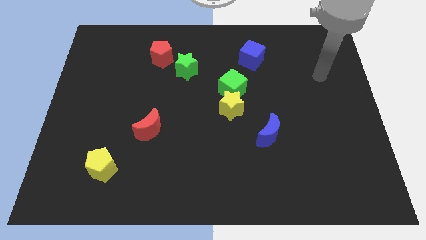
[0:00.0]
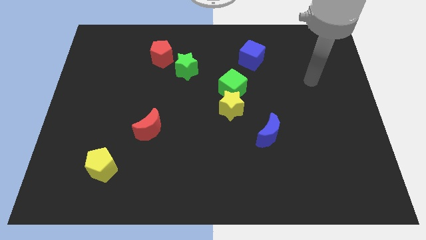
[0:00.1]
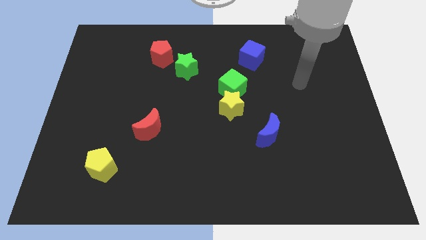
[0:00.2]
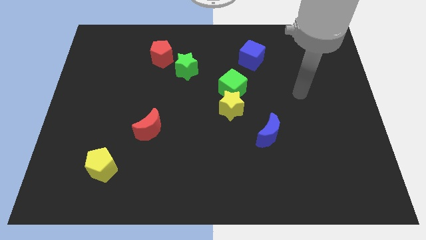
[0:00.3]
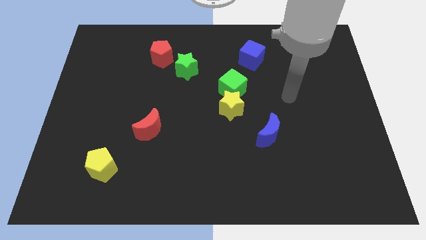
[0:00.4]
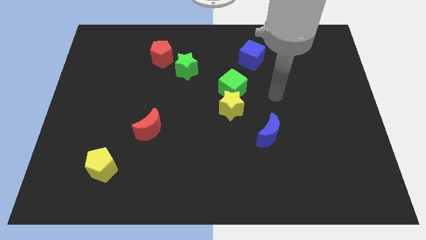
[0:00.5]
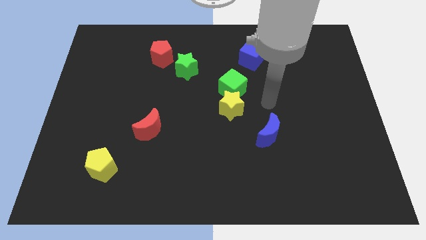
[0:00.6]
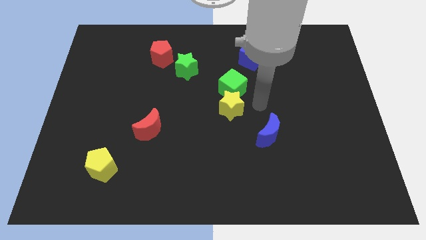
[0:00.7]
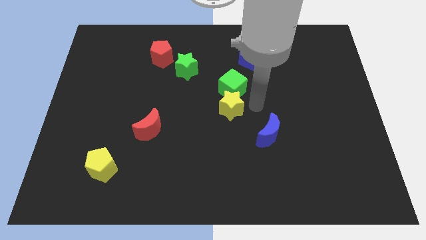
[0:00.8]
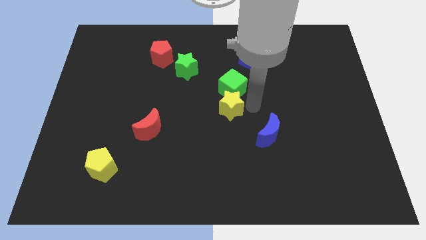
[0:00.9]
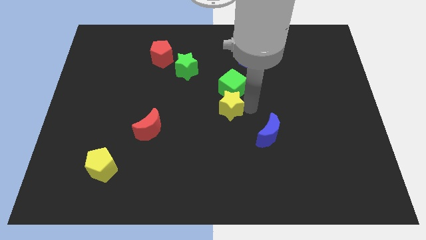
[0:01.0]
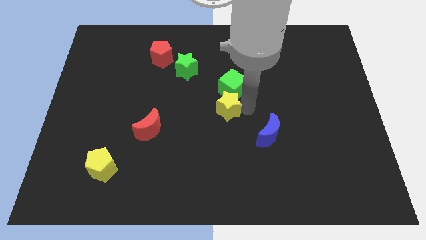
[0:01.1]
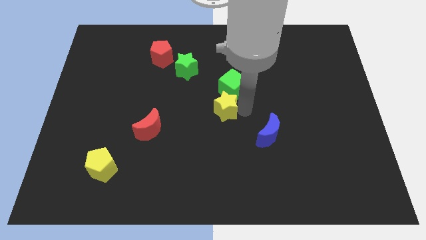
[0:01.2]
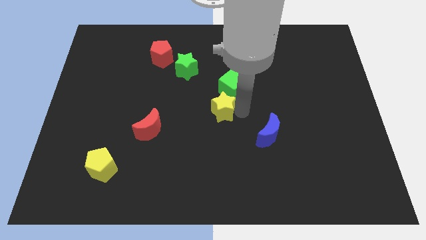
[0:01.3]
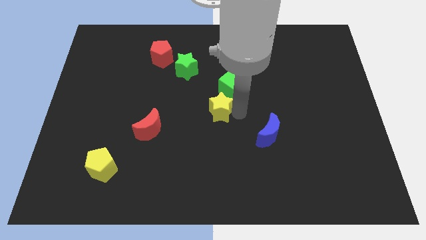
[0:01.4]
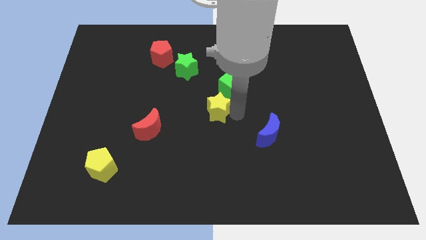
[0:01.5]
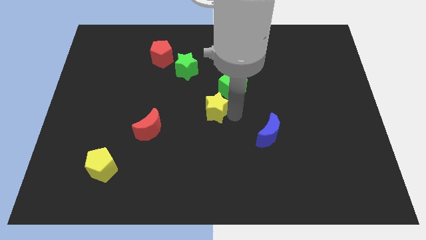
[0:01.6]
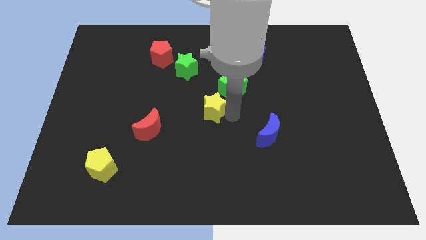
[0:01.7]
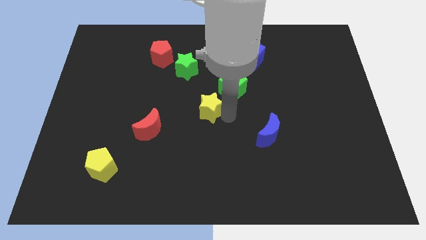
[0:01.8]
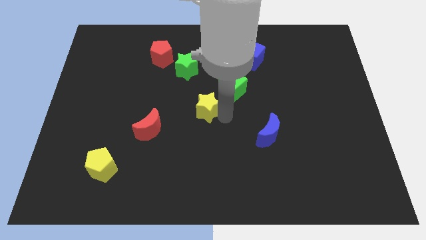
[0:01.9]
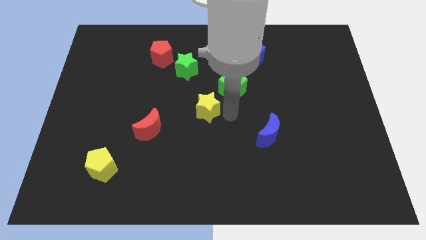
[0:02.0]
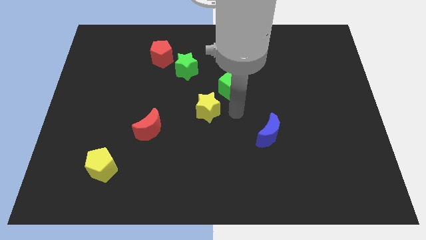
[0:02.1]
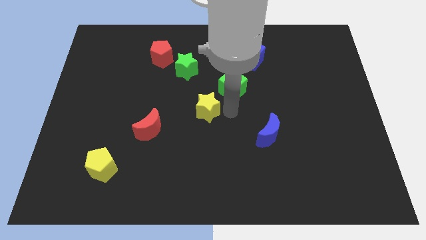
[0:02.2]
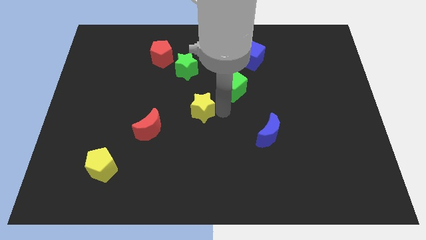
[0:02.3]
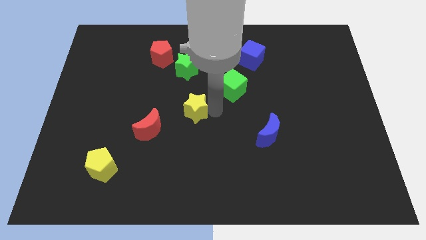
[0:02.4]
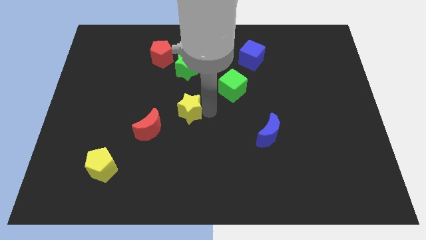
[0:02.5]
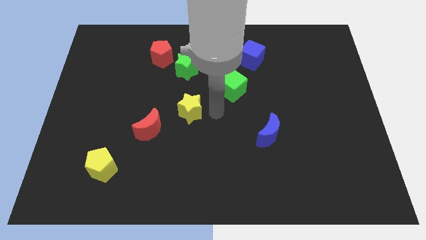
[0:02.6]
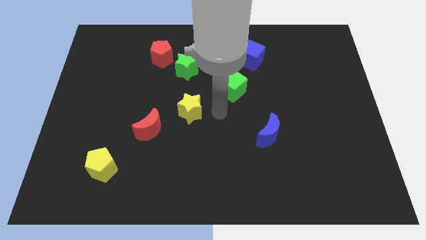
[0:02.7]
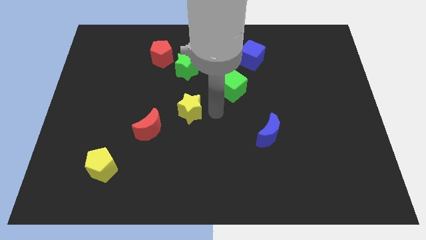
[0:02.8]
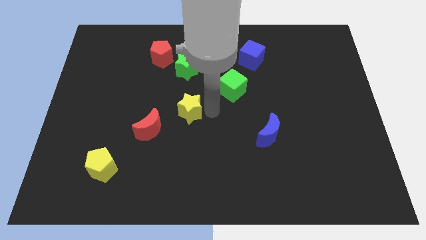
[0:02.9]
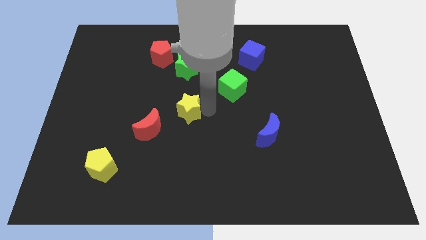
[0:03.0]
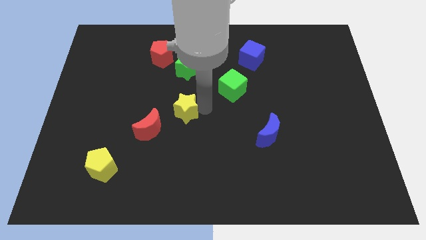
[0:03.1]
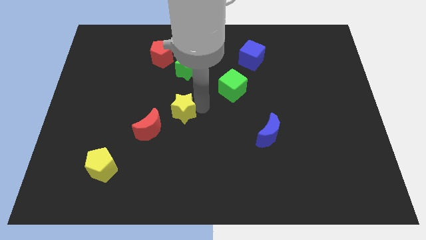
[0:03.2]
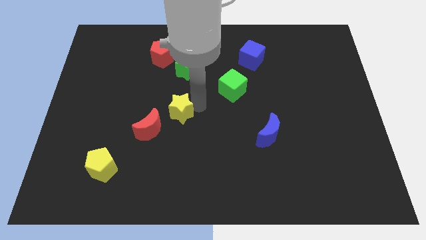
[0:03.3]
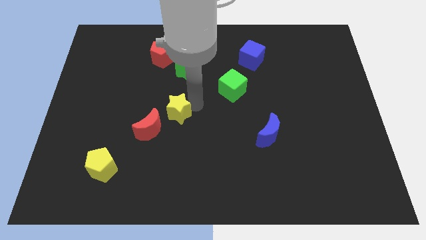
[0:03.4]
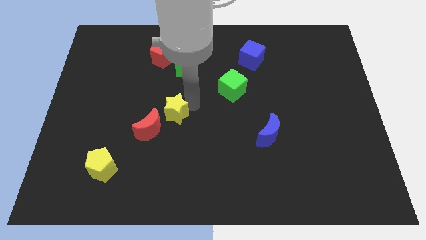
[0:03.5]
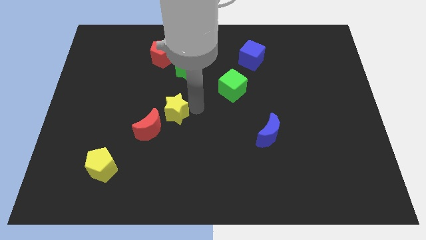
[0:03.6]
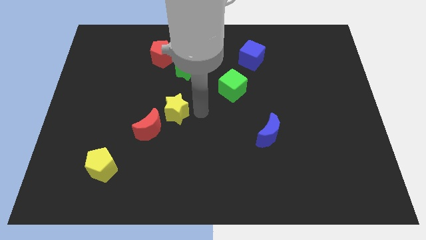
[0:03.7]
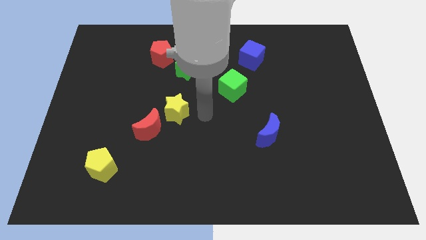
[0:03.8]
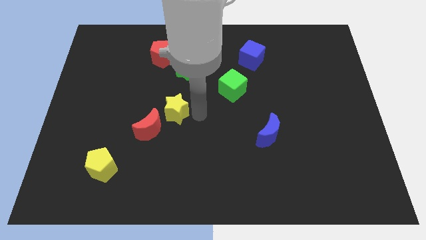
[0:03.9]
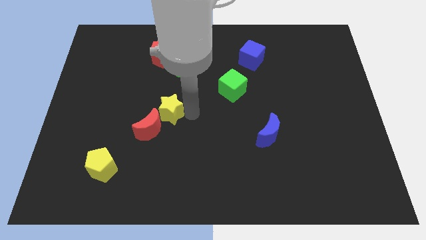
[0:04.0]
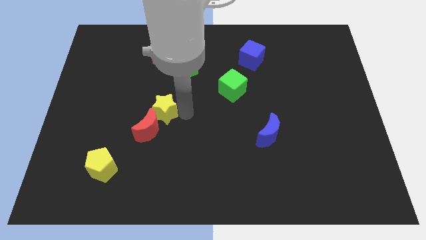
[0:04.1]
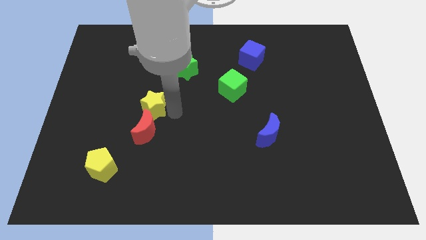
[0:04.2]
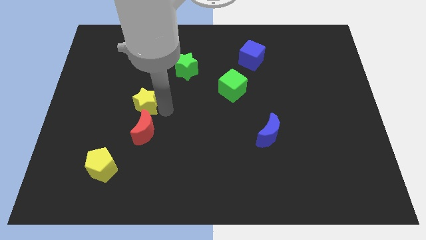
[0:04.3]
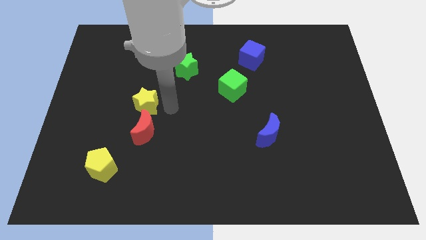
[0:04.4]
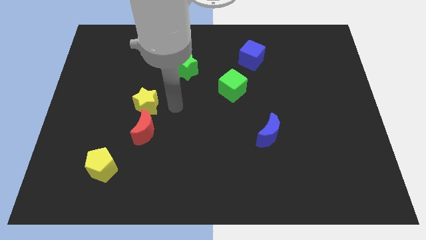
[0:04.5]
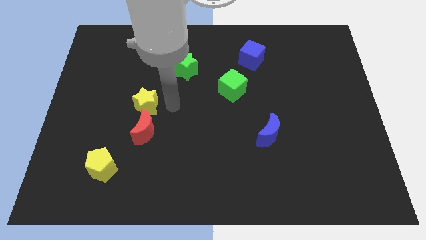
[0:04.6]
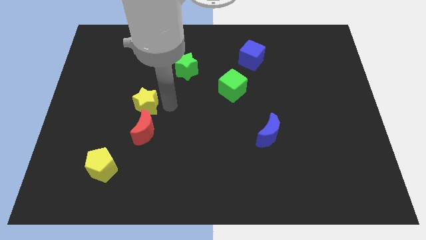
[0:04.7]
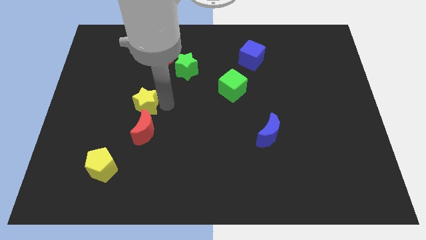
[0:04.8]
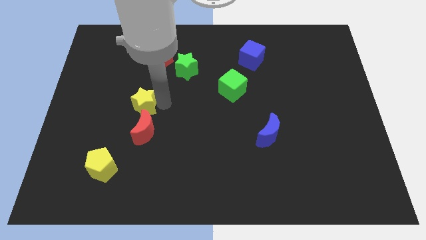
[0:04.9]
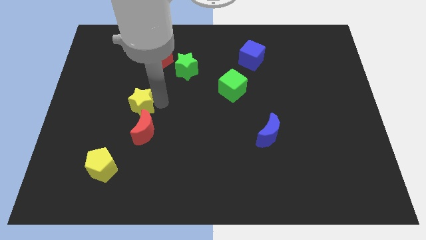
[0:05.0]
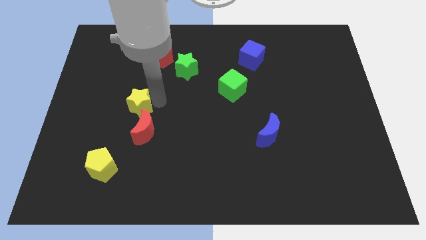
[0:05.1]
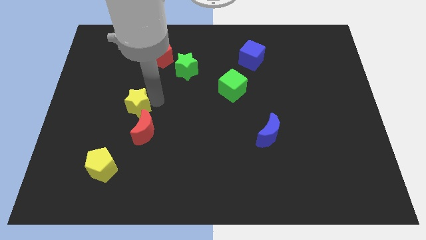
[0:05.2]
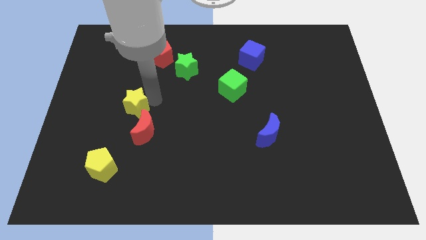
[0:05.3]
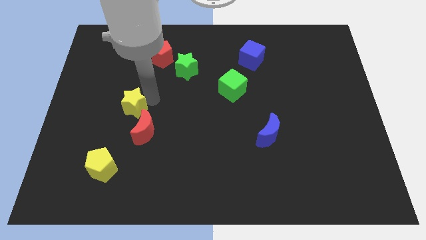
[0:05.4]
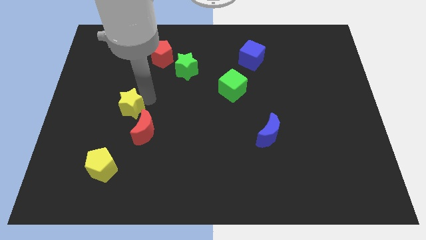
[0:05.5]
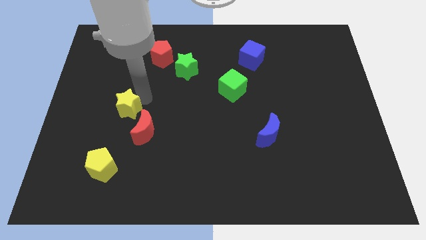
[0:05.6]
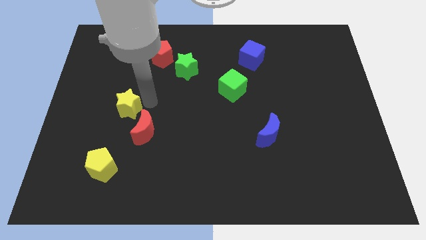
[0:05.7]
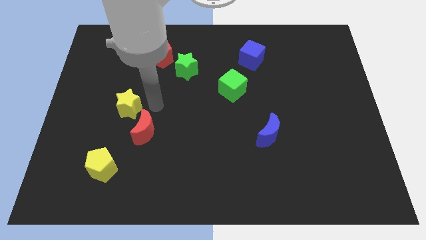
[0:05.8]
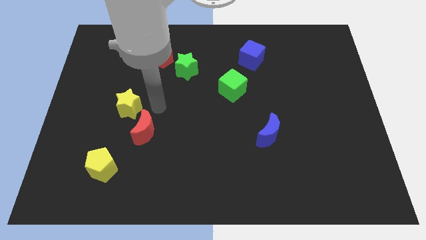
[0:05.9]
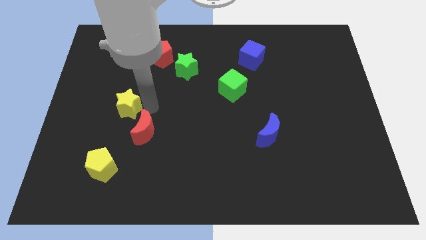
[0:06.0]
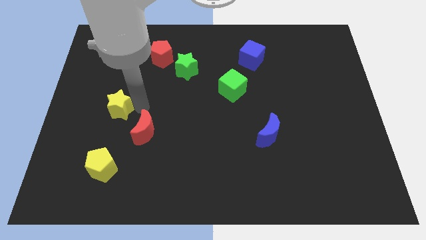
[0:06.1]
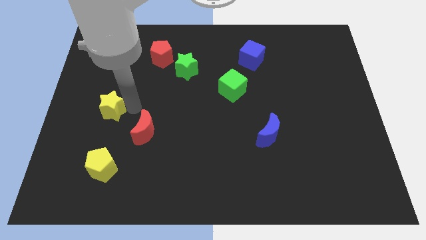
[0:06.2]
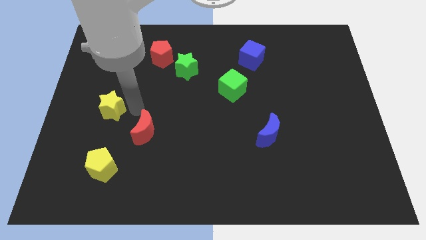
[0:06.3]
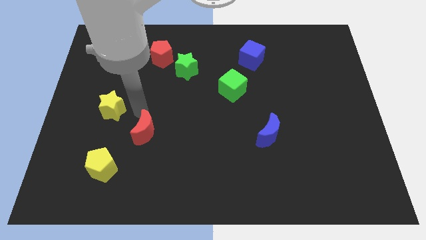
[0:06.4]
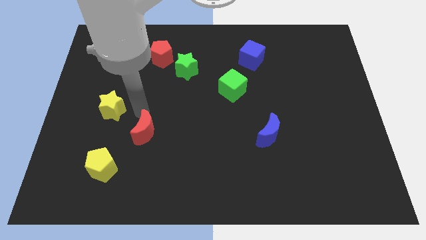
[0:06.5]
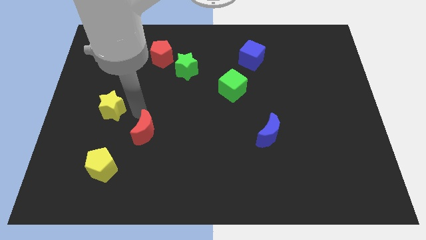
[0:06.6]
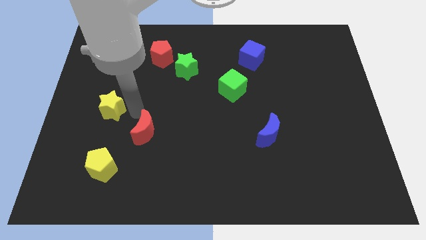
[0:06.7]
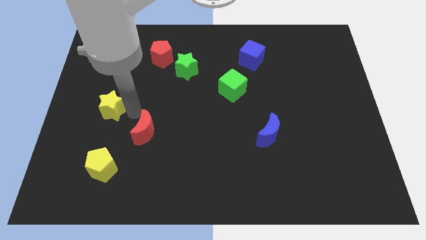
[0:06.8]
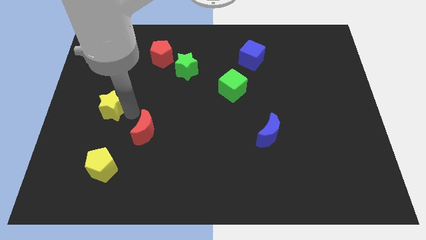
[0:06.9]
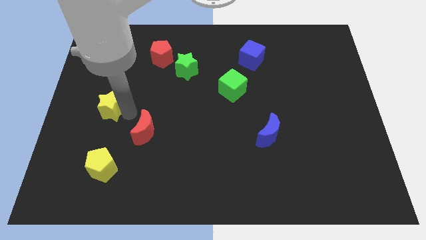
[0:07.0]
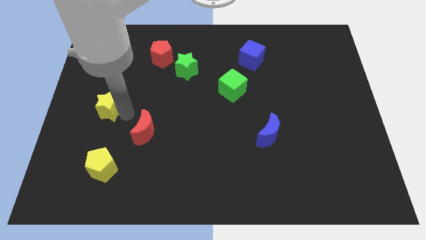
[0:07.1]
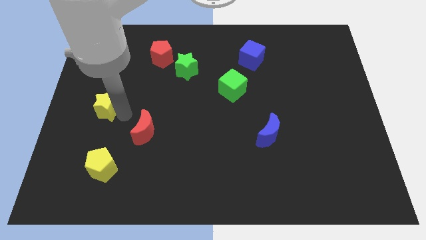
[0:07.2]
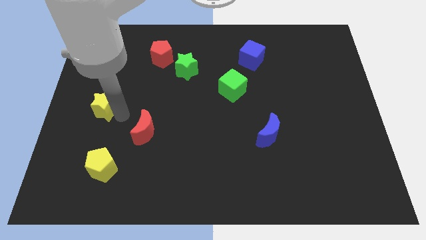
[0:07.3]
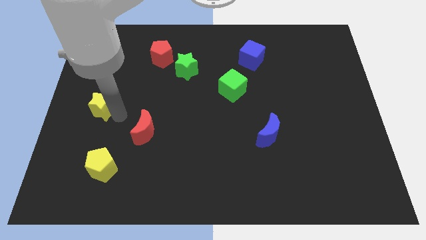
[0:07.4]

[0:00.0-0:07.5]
move the yellow star to the left side of the board
